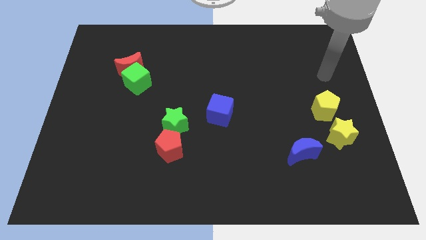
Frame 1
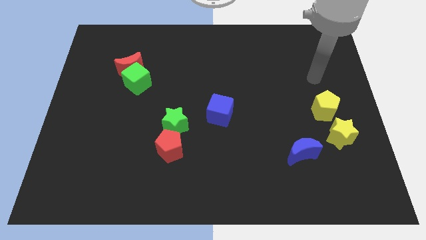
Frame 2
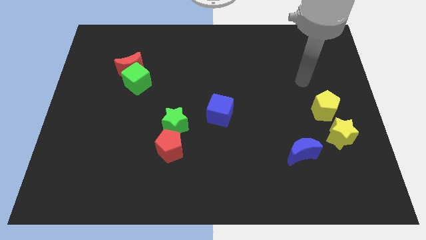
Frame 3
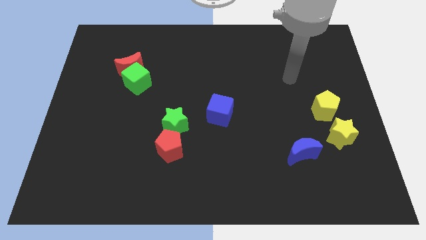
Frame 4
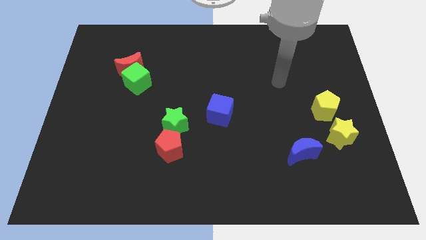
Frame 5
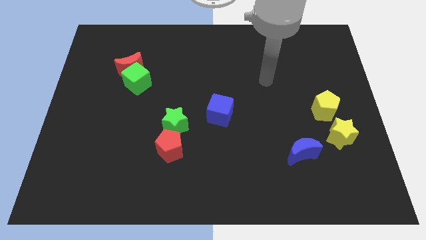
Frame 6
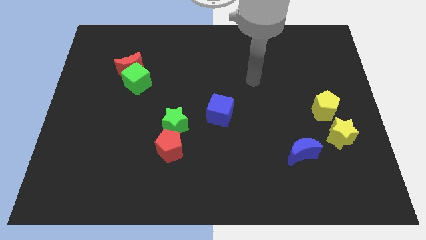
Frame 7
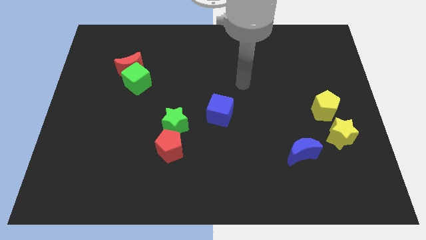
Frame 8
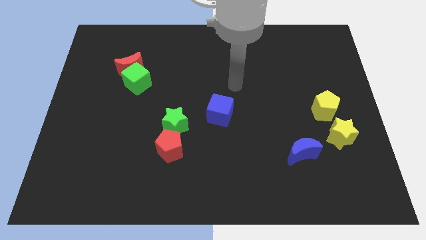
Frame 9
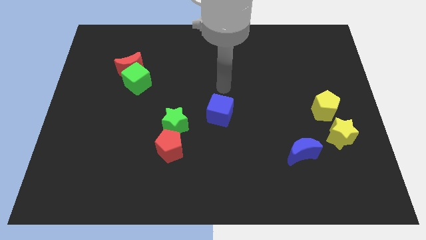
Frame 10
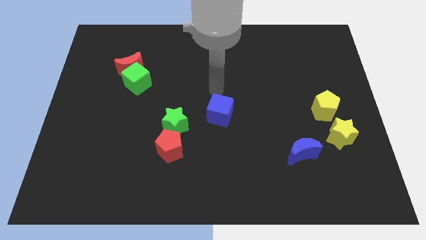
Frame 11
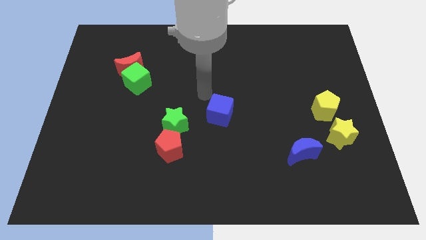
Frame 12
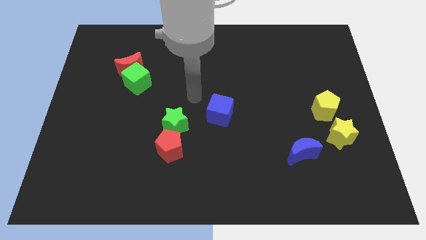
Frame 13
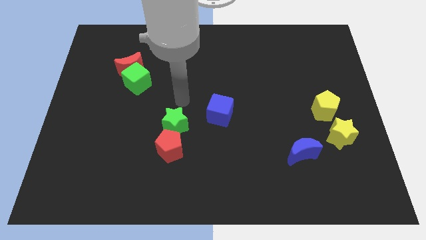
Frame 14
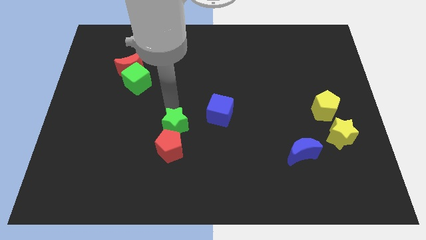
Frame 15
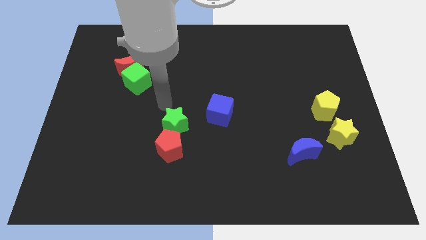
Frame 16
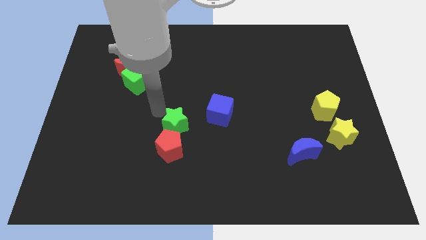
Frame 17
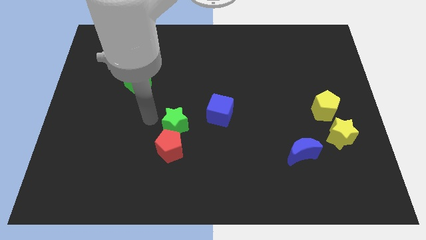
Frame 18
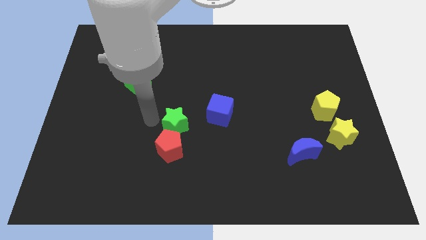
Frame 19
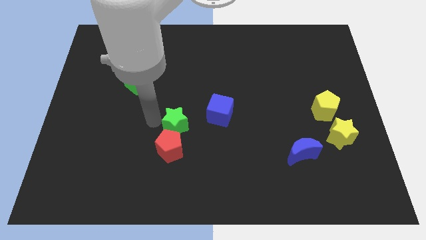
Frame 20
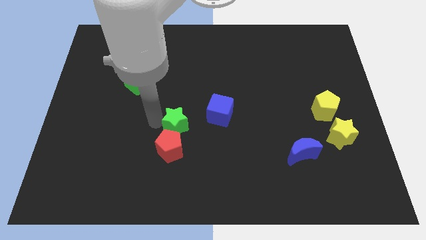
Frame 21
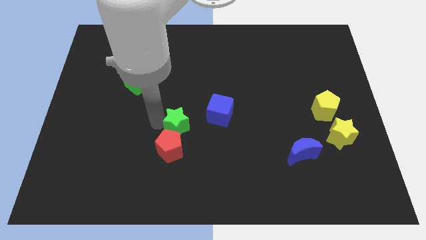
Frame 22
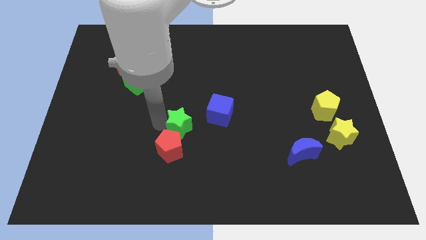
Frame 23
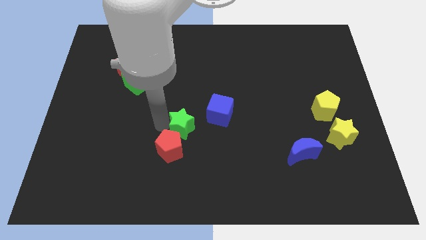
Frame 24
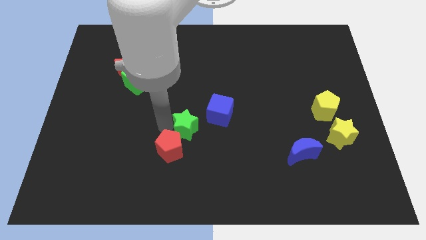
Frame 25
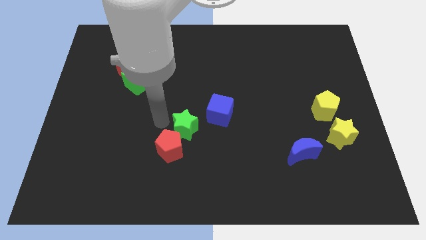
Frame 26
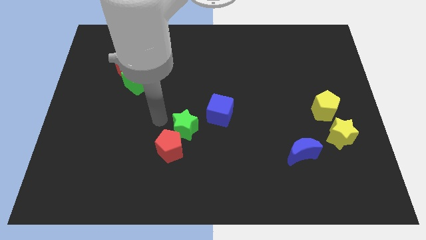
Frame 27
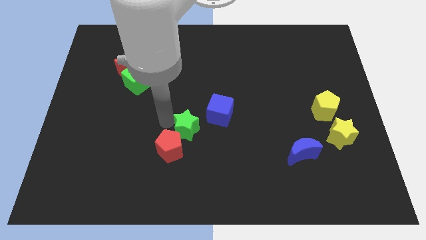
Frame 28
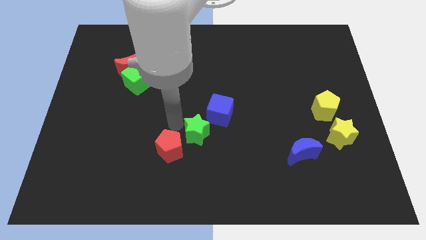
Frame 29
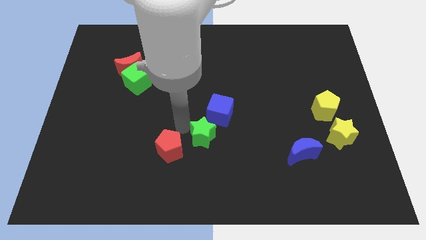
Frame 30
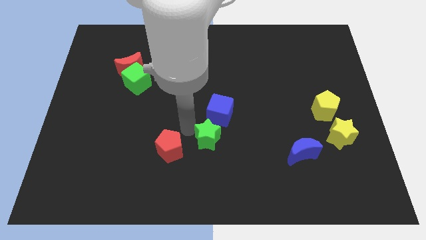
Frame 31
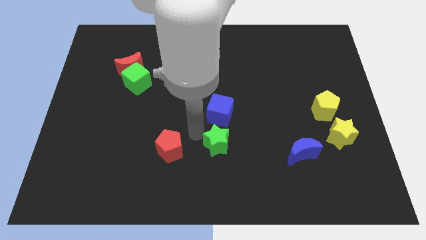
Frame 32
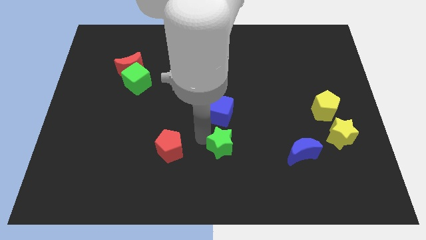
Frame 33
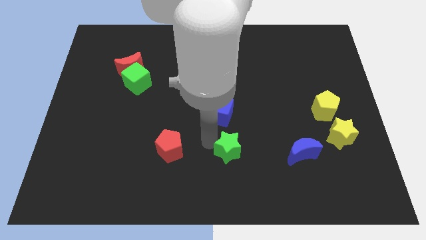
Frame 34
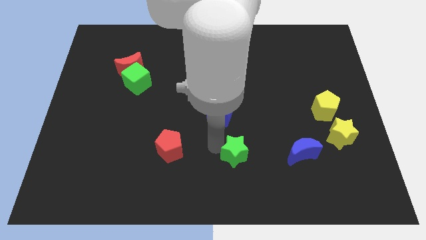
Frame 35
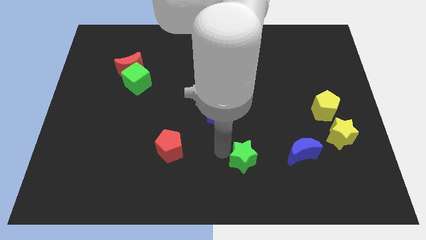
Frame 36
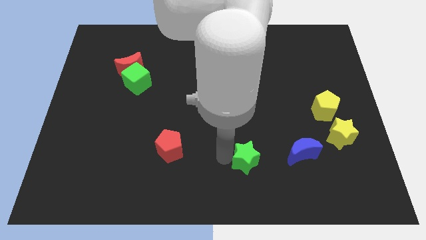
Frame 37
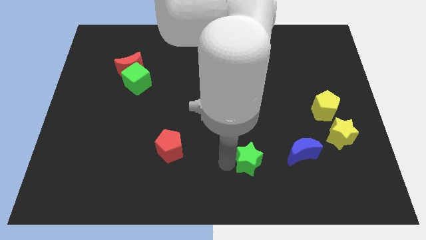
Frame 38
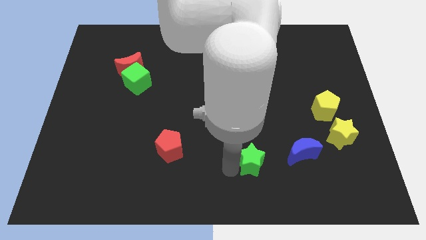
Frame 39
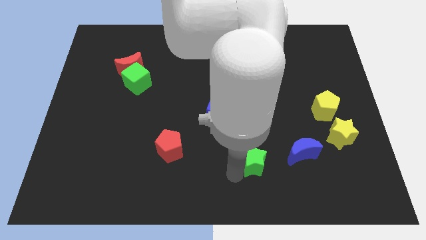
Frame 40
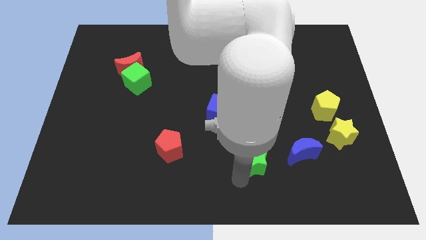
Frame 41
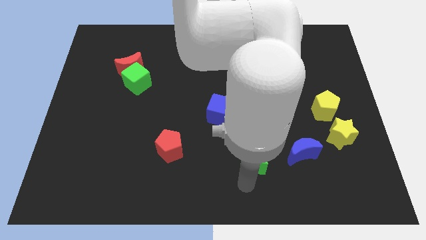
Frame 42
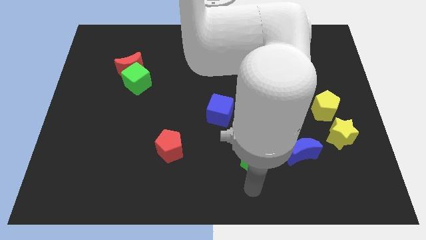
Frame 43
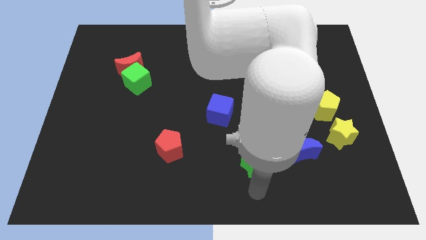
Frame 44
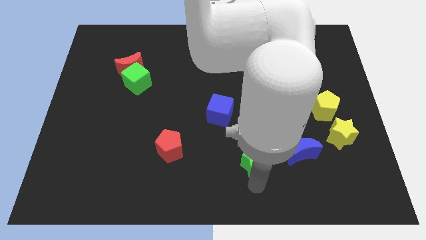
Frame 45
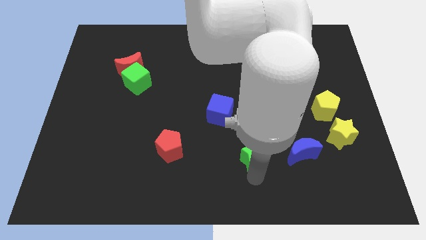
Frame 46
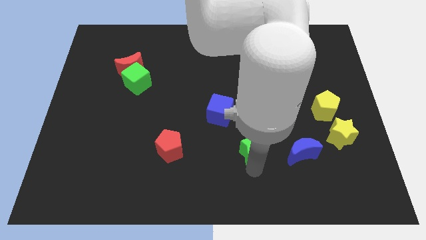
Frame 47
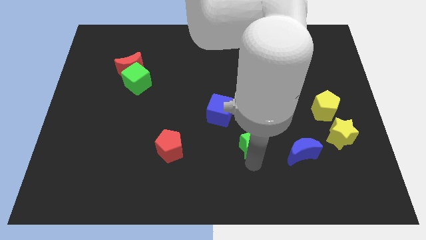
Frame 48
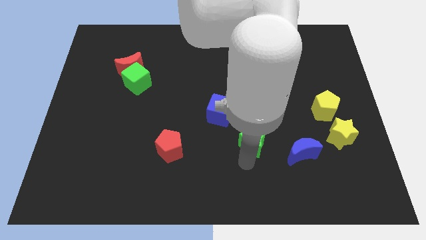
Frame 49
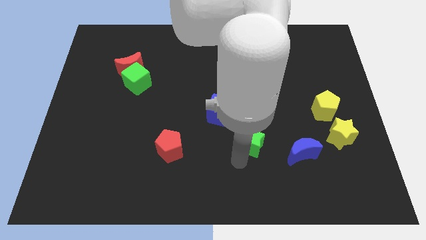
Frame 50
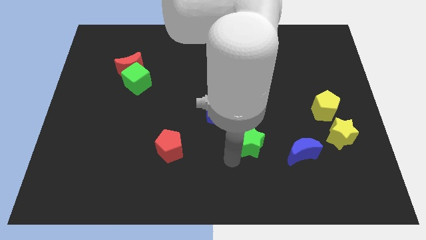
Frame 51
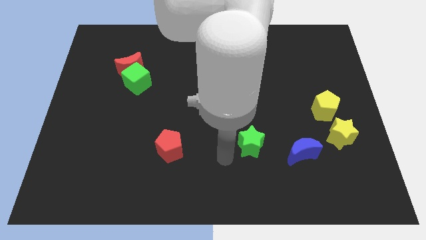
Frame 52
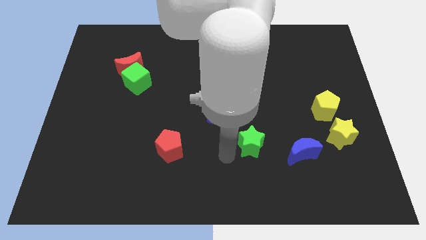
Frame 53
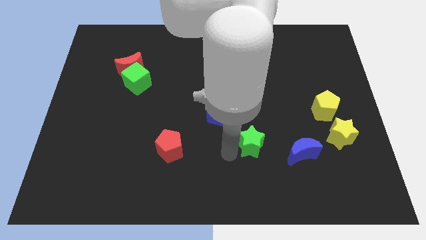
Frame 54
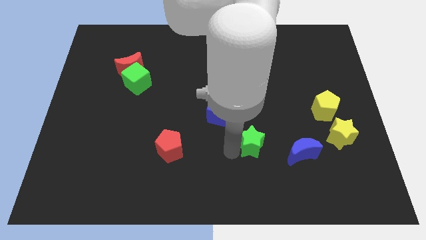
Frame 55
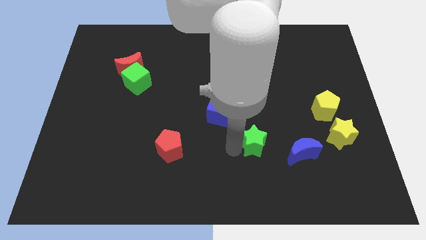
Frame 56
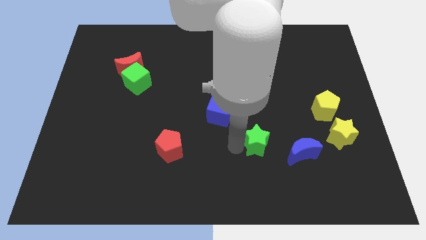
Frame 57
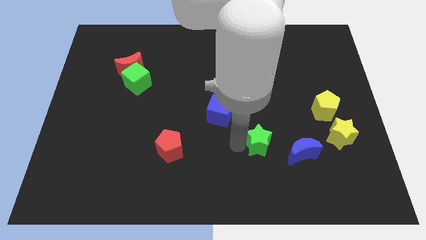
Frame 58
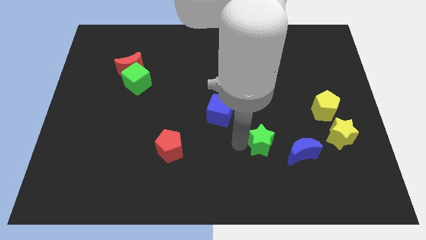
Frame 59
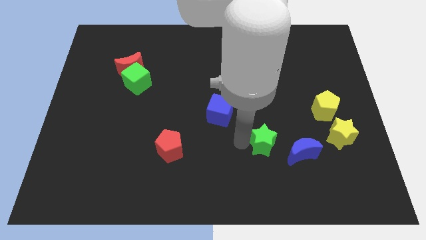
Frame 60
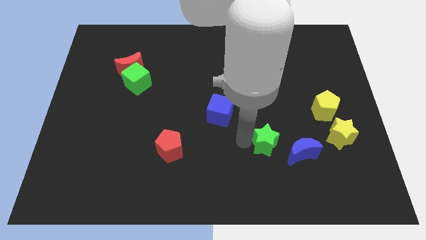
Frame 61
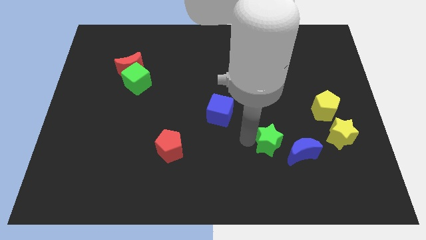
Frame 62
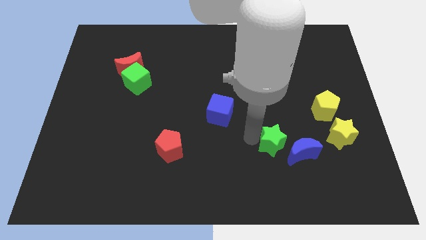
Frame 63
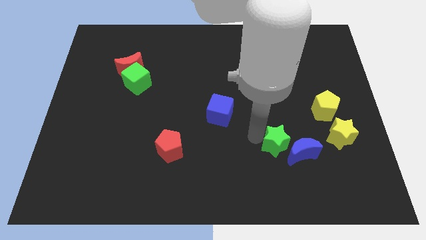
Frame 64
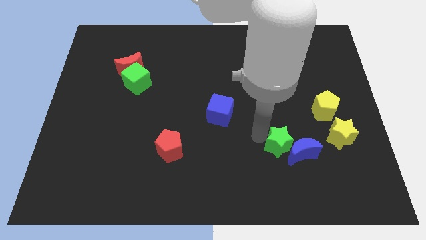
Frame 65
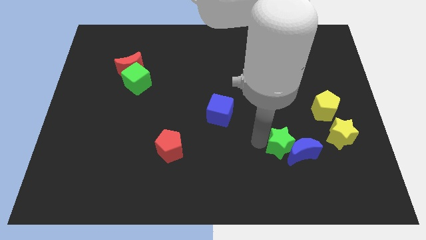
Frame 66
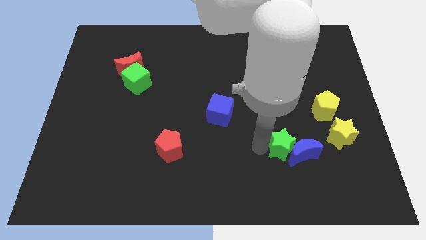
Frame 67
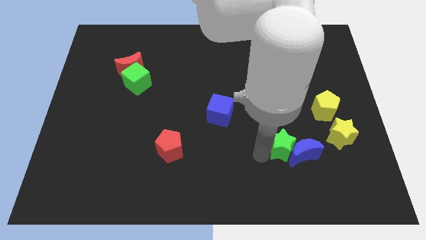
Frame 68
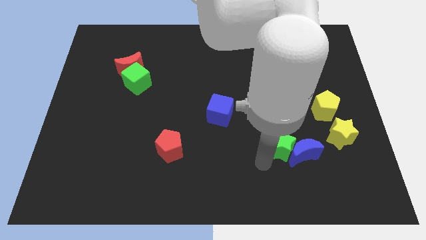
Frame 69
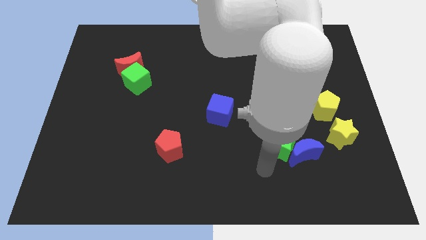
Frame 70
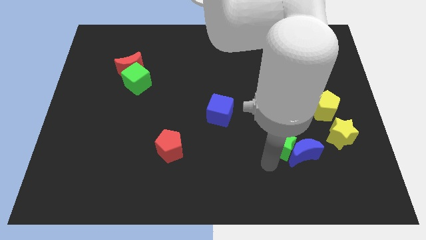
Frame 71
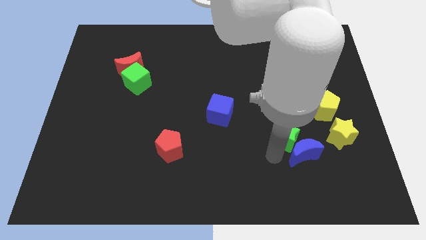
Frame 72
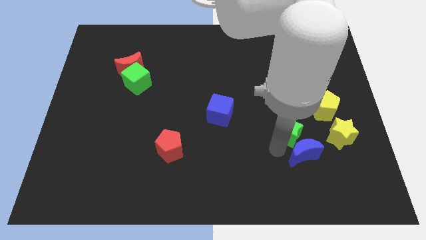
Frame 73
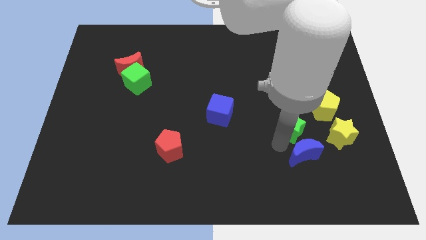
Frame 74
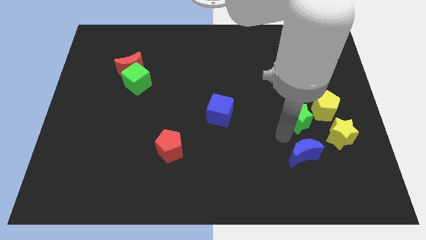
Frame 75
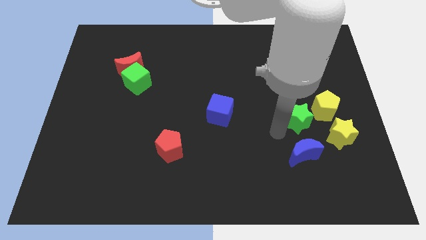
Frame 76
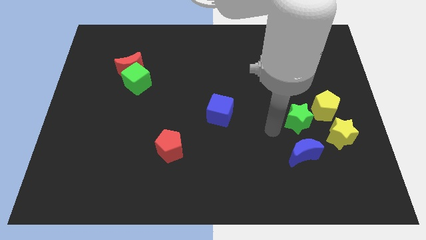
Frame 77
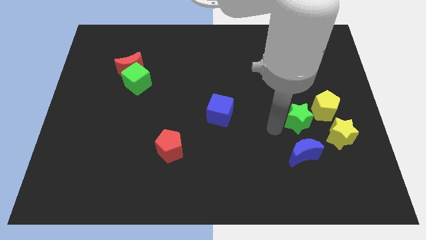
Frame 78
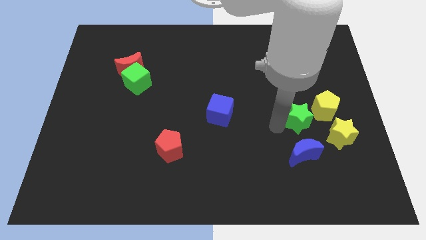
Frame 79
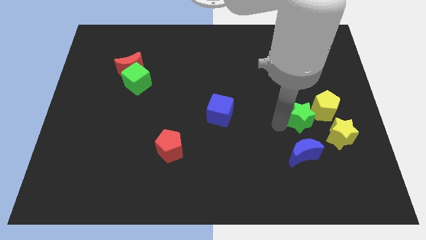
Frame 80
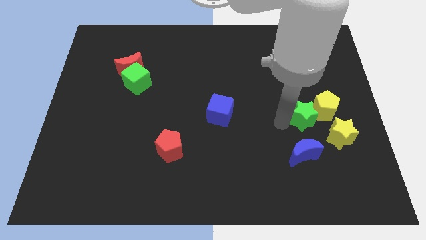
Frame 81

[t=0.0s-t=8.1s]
slide the green star close to the yellow pentagon
